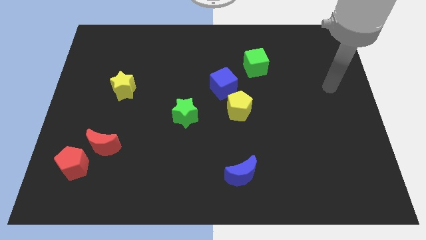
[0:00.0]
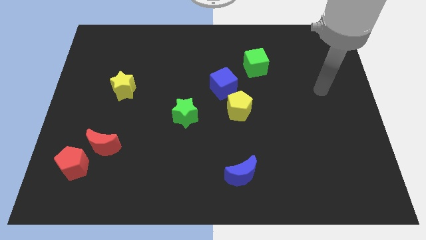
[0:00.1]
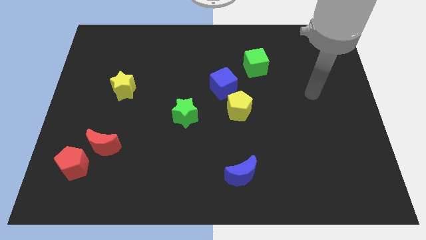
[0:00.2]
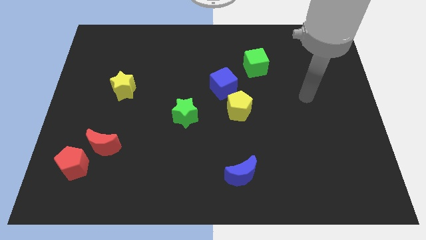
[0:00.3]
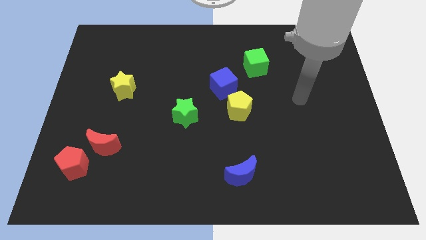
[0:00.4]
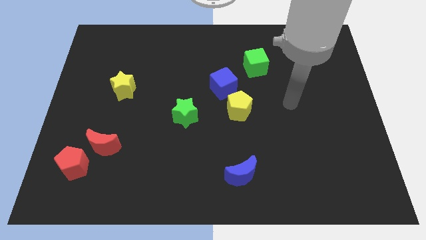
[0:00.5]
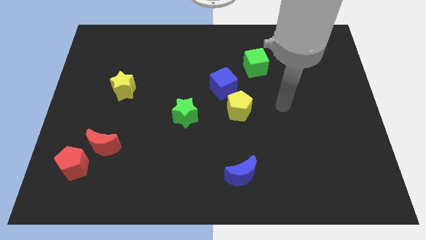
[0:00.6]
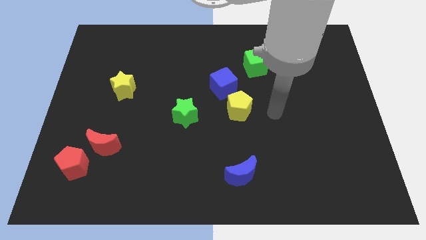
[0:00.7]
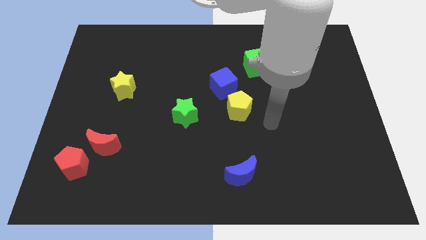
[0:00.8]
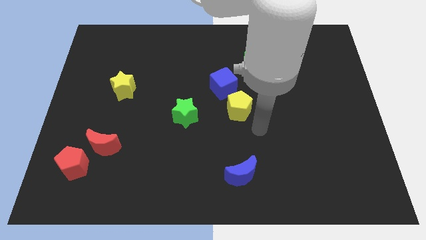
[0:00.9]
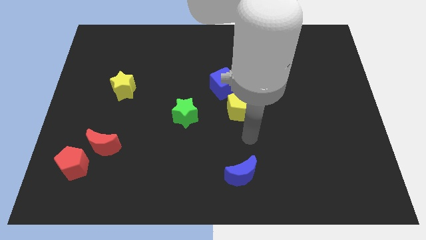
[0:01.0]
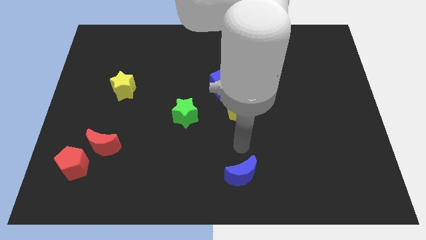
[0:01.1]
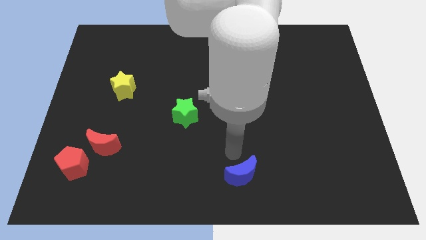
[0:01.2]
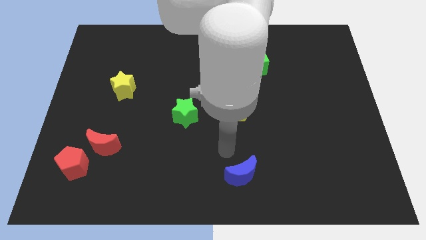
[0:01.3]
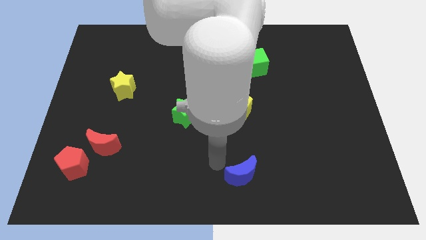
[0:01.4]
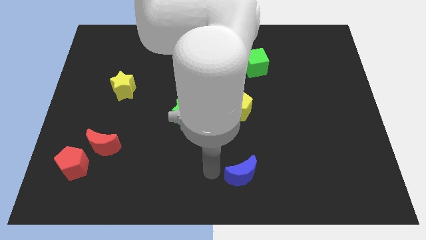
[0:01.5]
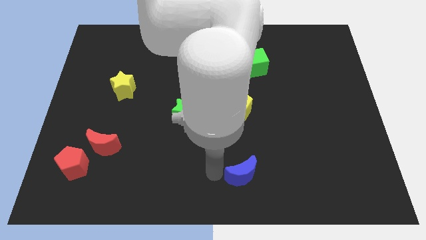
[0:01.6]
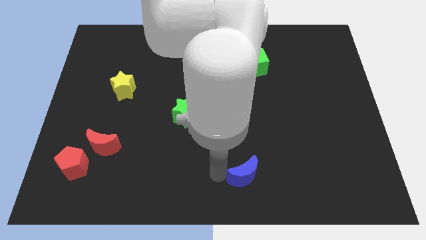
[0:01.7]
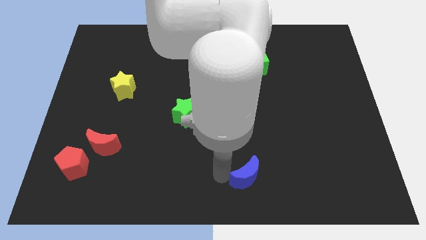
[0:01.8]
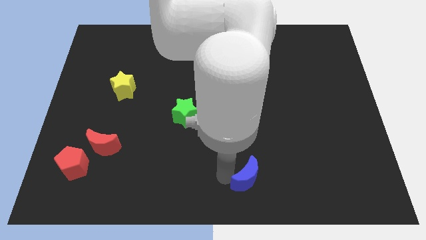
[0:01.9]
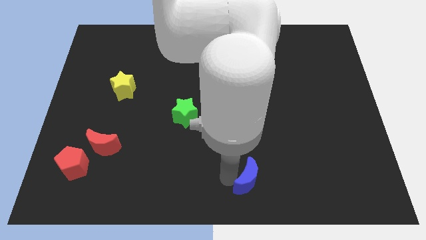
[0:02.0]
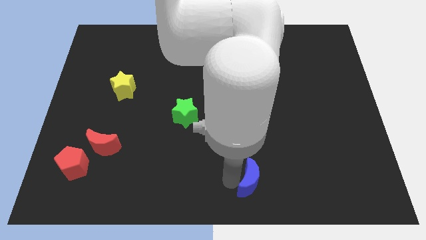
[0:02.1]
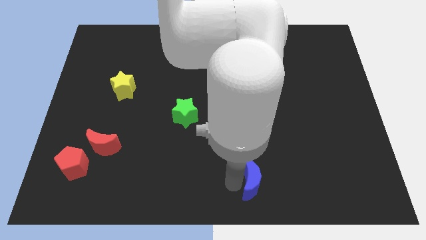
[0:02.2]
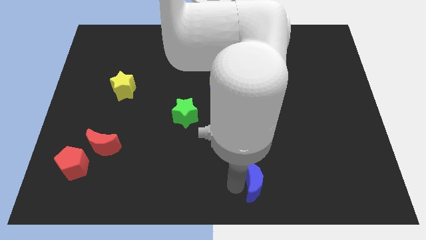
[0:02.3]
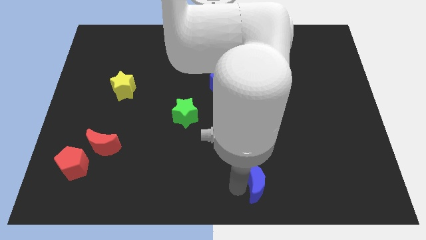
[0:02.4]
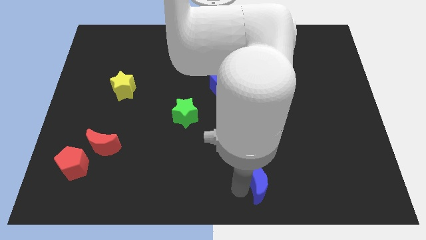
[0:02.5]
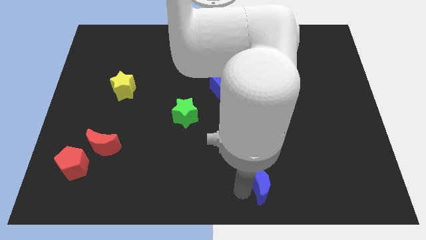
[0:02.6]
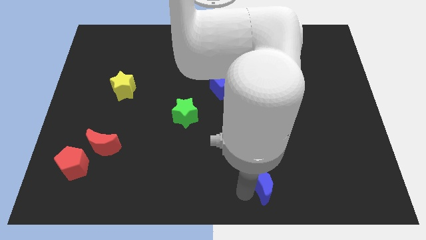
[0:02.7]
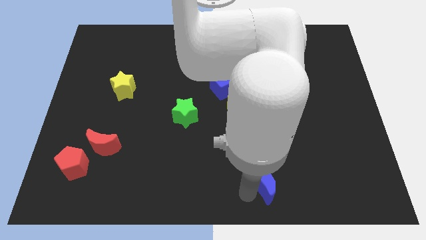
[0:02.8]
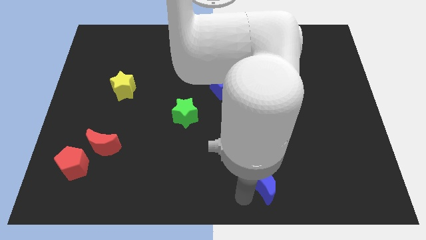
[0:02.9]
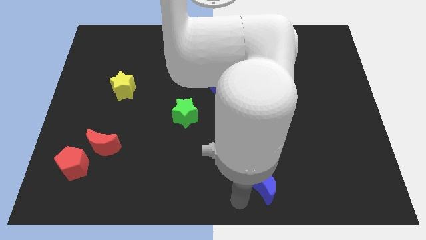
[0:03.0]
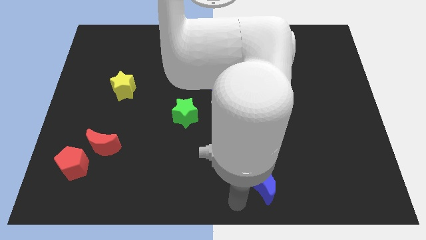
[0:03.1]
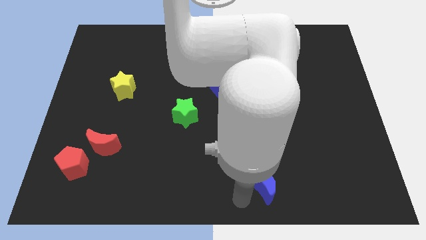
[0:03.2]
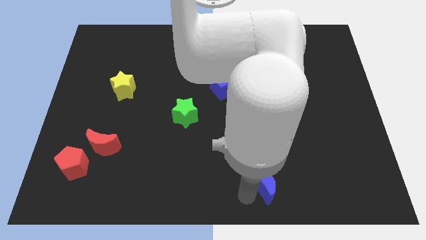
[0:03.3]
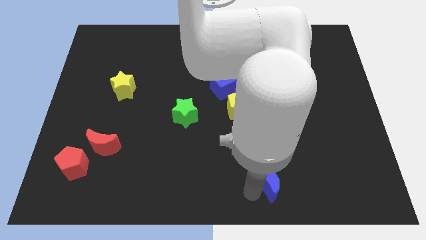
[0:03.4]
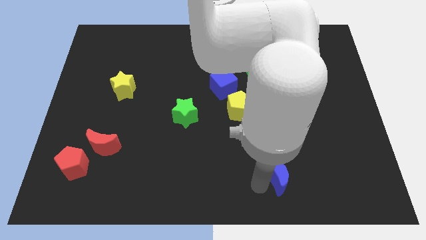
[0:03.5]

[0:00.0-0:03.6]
slightly push the blue moon to the right

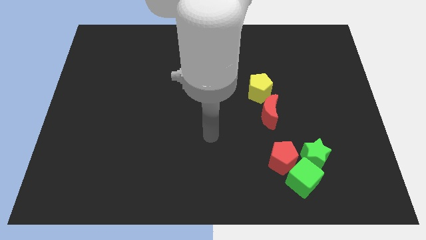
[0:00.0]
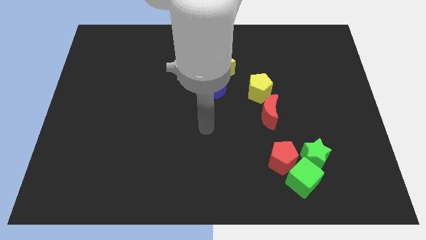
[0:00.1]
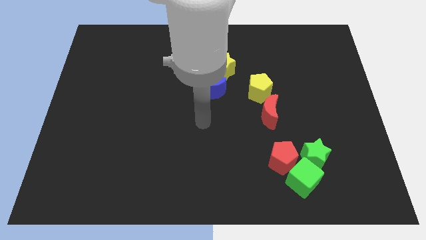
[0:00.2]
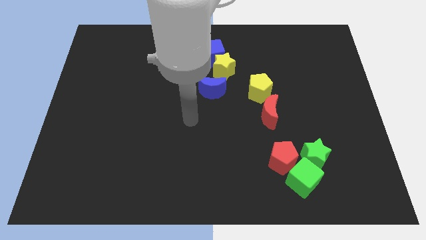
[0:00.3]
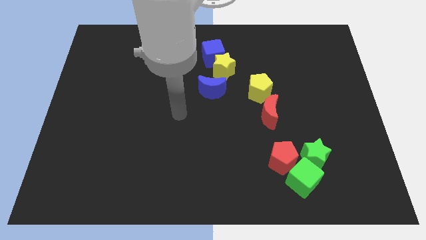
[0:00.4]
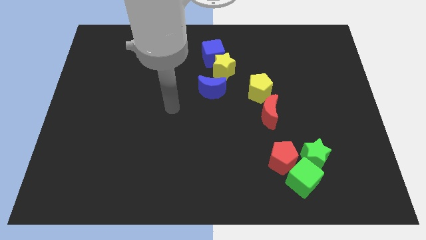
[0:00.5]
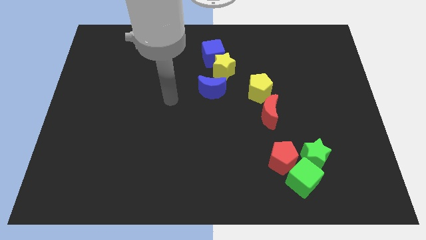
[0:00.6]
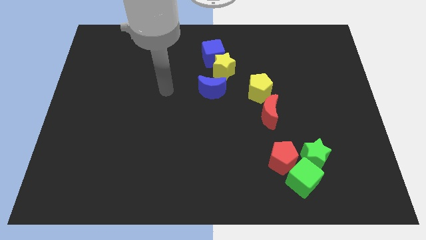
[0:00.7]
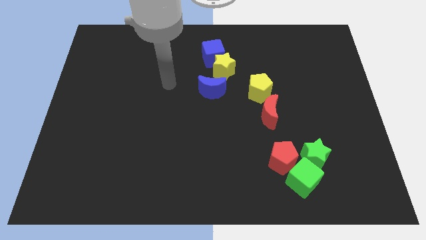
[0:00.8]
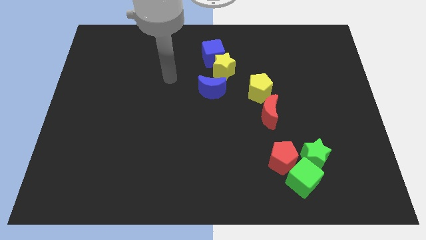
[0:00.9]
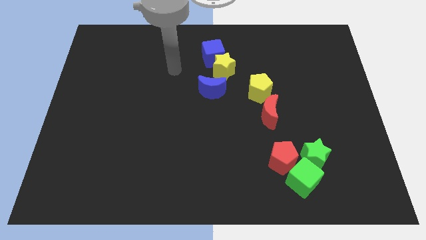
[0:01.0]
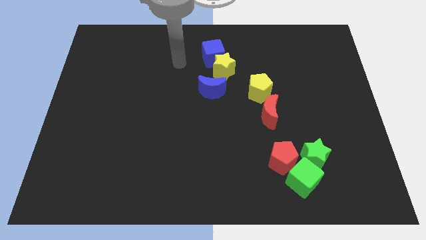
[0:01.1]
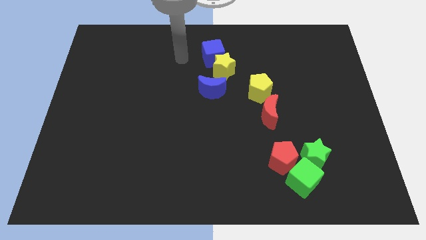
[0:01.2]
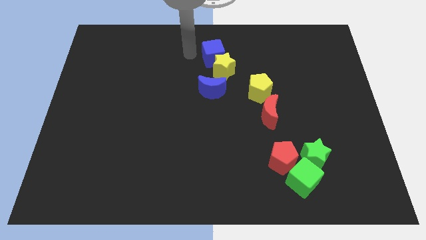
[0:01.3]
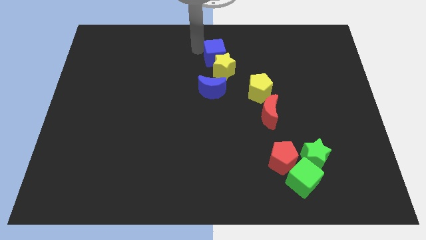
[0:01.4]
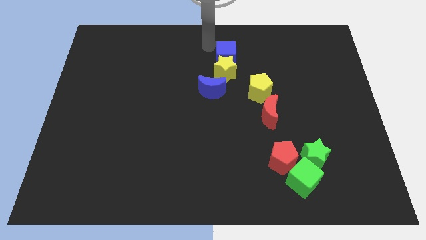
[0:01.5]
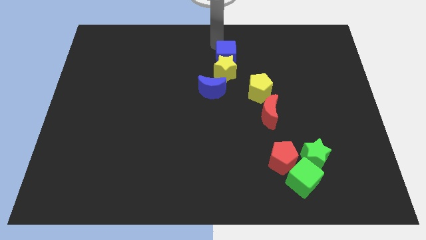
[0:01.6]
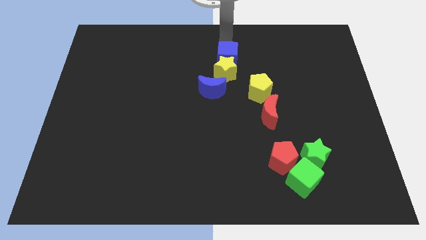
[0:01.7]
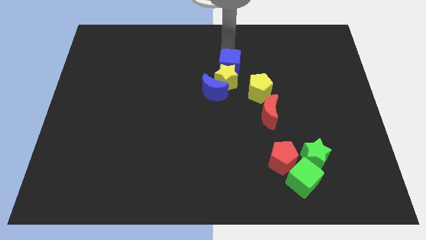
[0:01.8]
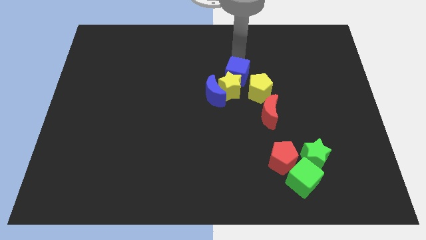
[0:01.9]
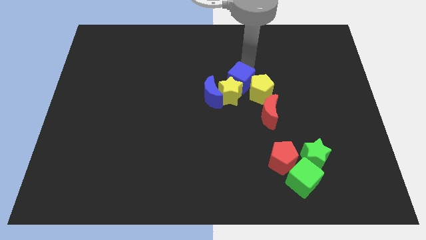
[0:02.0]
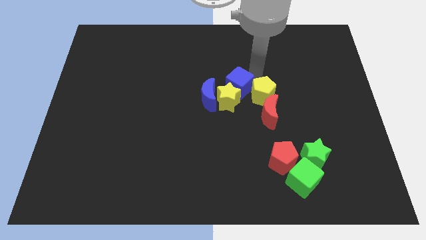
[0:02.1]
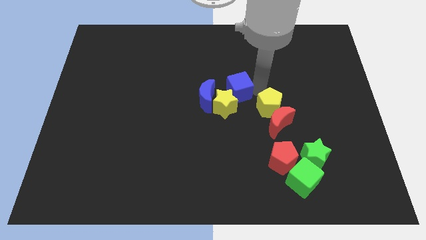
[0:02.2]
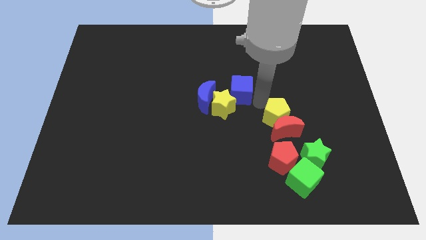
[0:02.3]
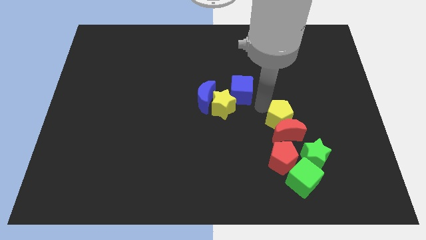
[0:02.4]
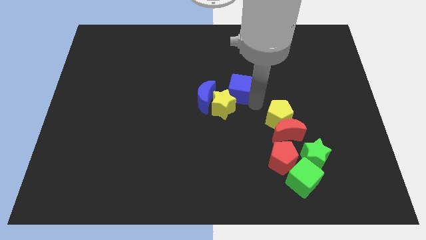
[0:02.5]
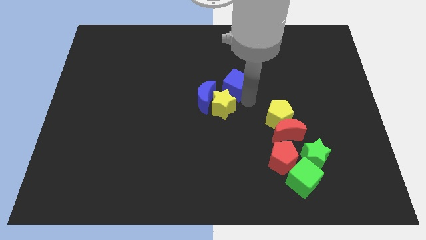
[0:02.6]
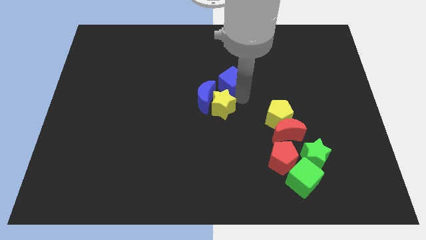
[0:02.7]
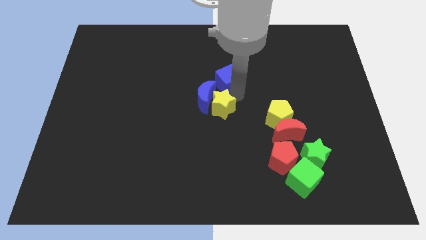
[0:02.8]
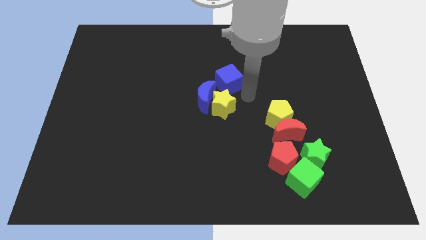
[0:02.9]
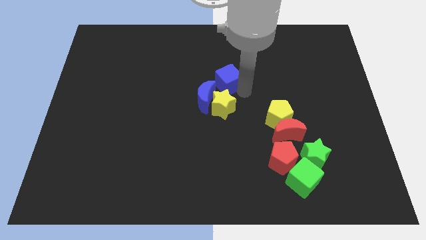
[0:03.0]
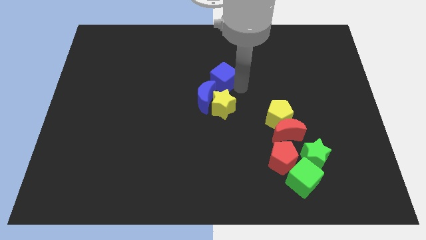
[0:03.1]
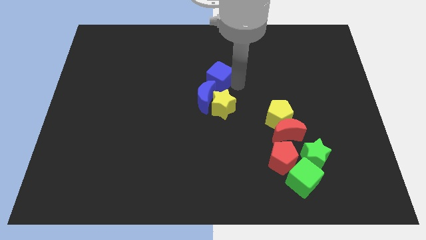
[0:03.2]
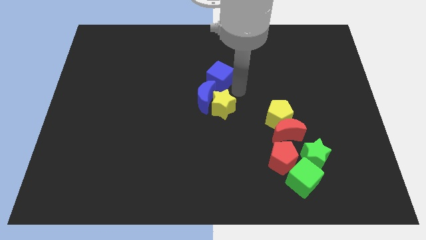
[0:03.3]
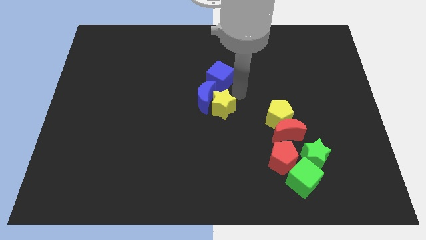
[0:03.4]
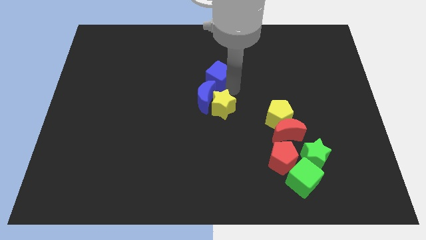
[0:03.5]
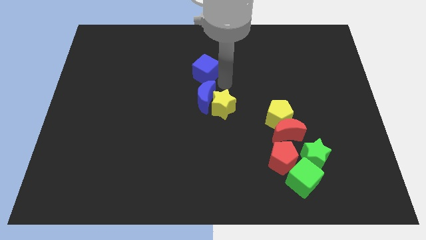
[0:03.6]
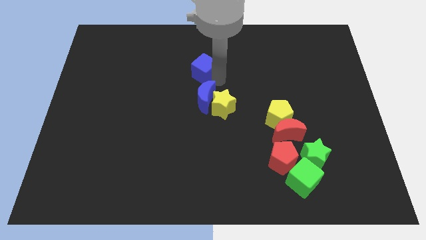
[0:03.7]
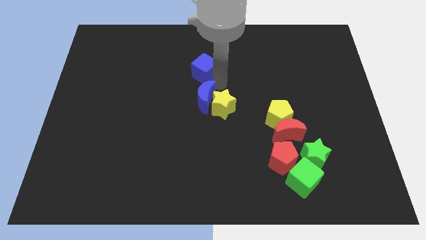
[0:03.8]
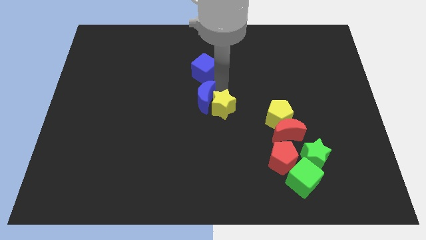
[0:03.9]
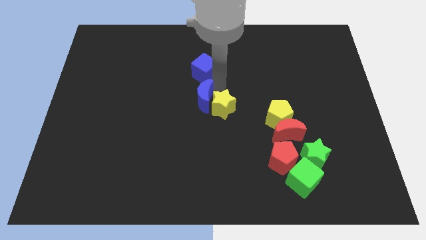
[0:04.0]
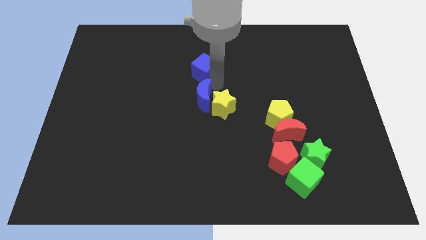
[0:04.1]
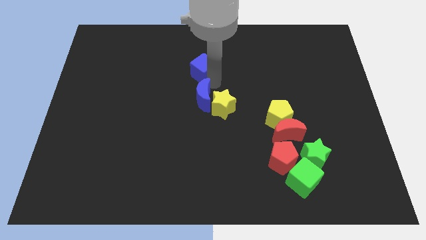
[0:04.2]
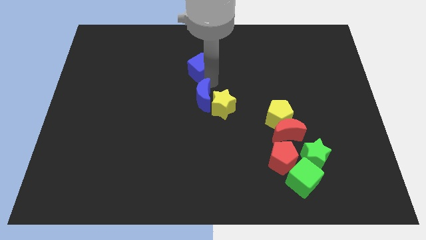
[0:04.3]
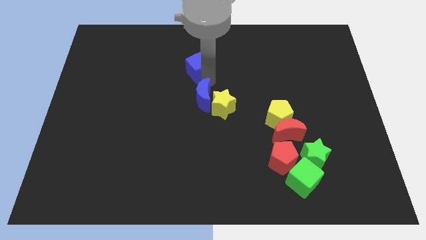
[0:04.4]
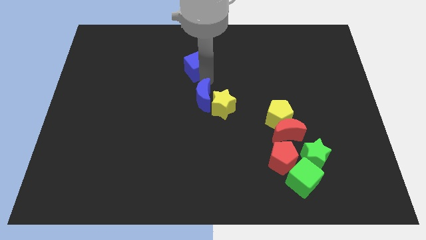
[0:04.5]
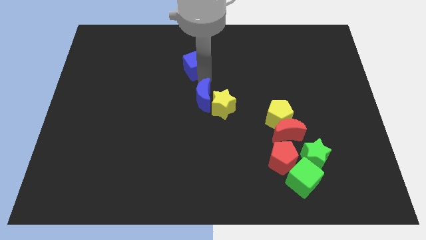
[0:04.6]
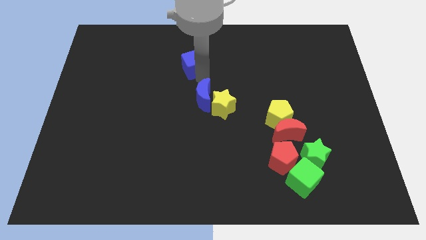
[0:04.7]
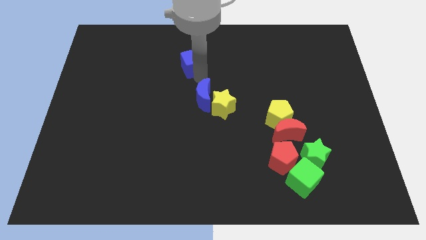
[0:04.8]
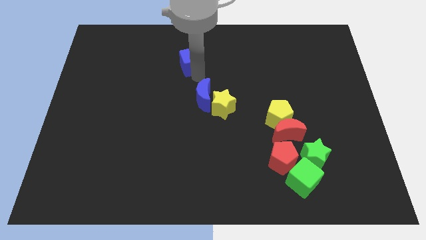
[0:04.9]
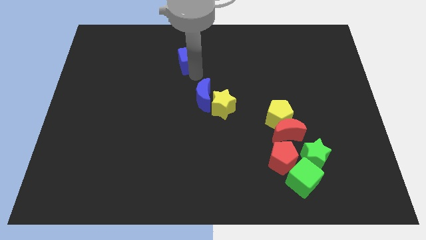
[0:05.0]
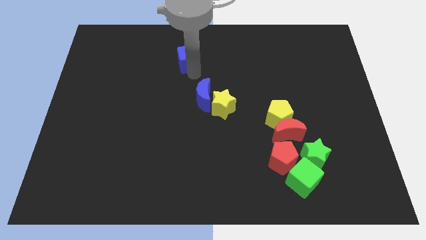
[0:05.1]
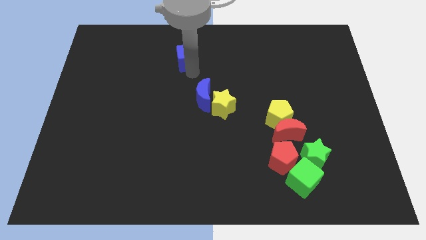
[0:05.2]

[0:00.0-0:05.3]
push the blue cube a little bit to the left
